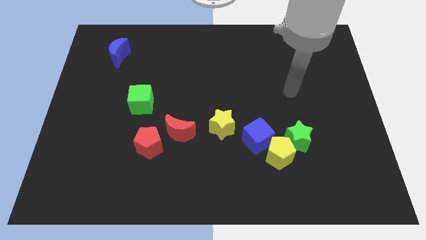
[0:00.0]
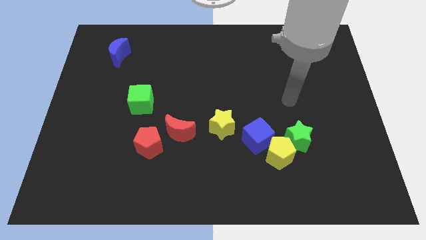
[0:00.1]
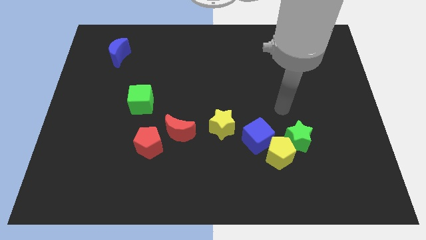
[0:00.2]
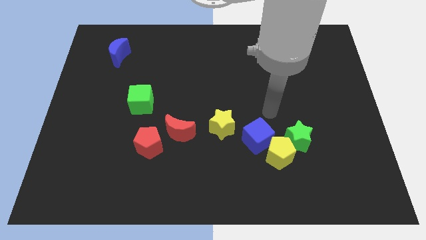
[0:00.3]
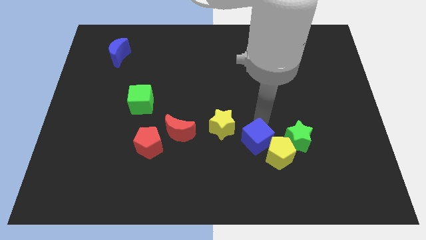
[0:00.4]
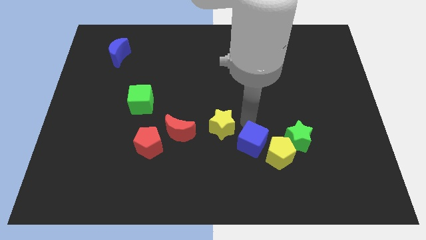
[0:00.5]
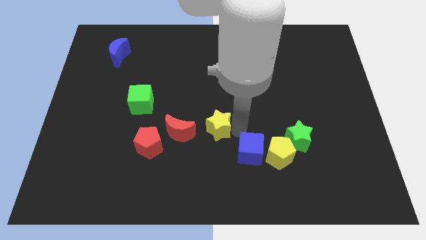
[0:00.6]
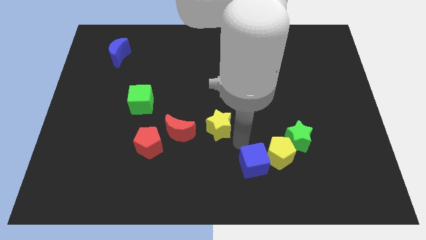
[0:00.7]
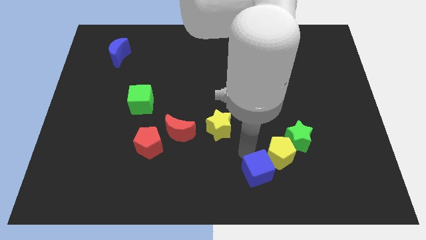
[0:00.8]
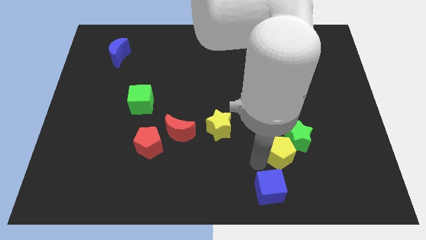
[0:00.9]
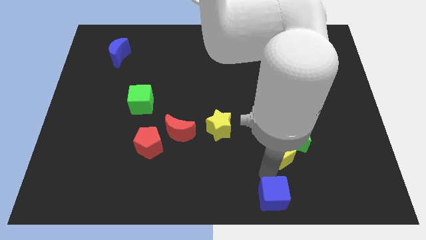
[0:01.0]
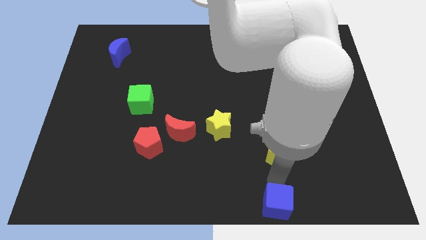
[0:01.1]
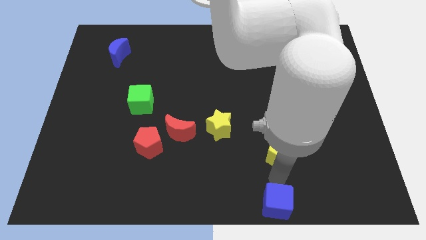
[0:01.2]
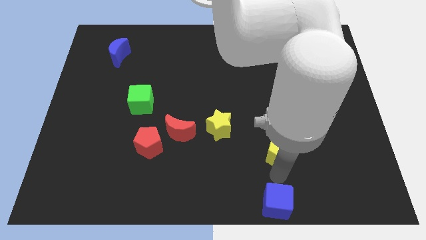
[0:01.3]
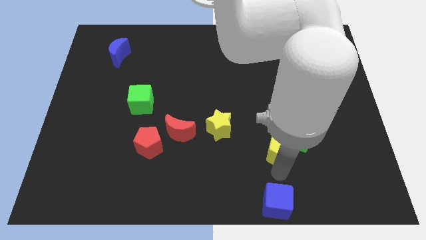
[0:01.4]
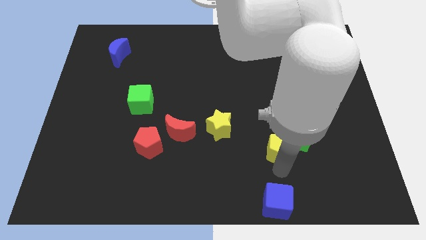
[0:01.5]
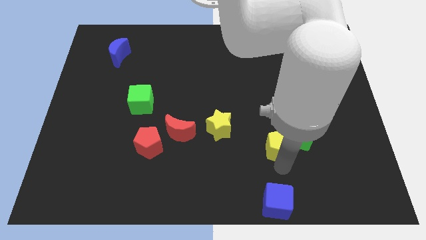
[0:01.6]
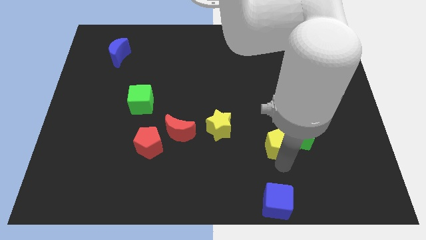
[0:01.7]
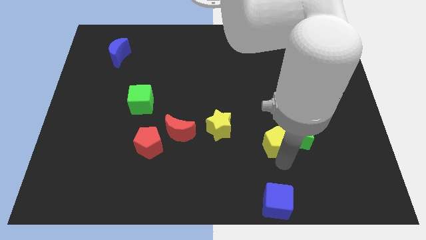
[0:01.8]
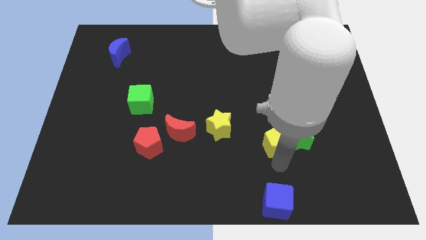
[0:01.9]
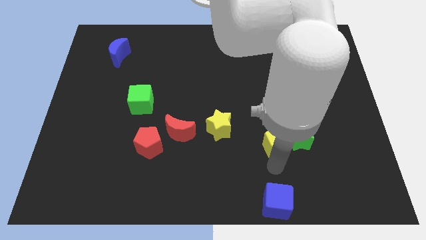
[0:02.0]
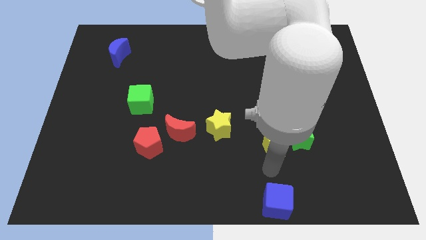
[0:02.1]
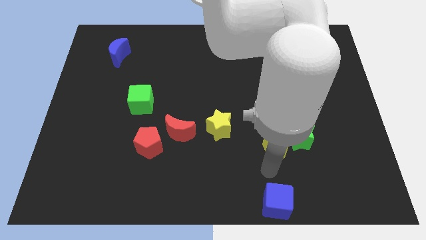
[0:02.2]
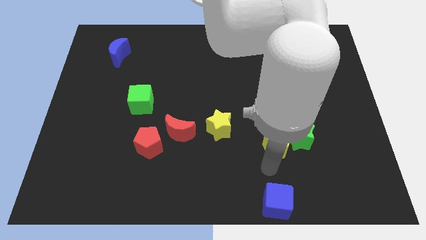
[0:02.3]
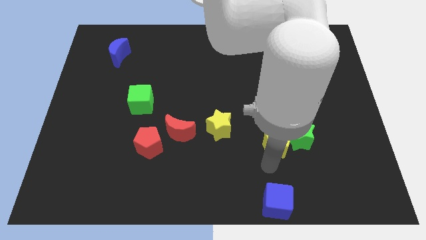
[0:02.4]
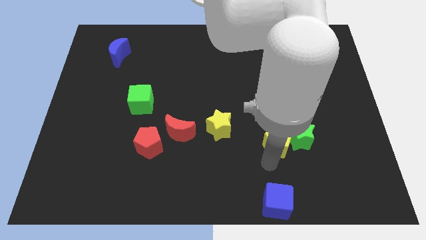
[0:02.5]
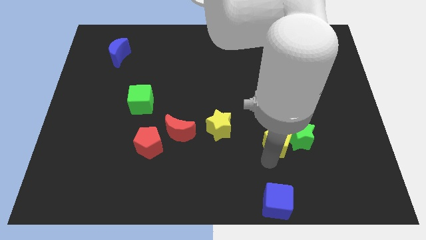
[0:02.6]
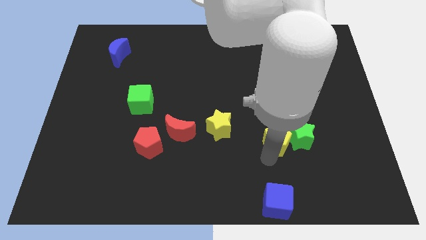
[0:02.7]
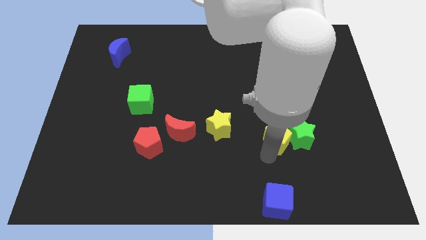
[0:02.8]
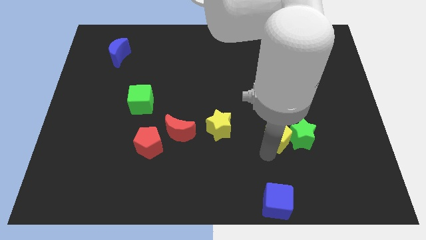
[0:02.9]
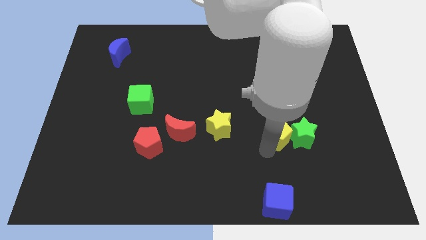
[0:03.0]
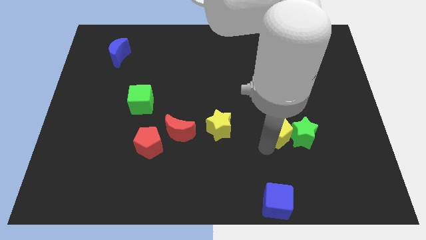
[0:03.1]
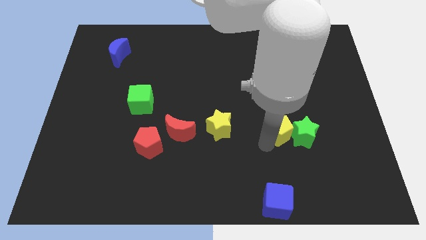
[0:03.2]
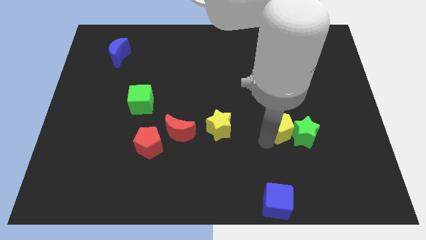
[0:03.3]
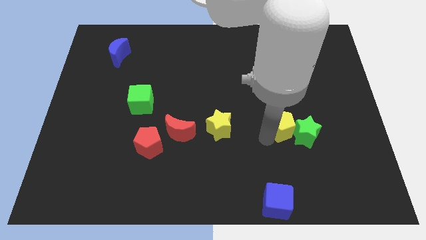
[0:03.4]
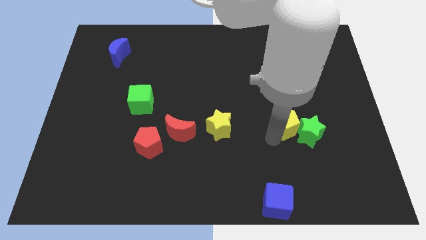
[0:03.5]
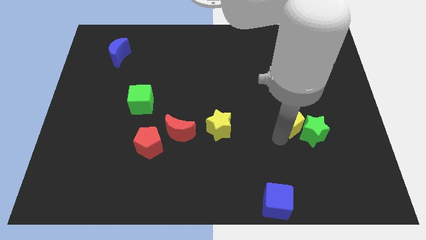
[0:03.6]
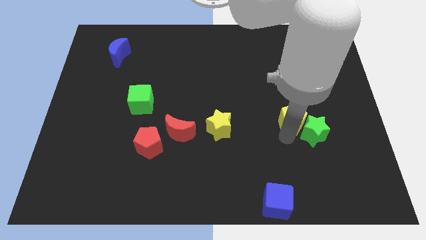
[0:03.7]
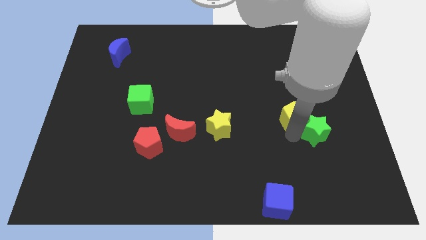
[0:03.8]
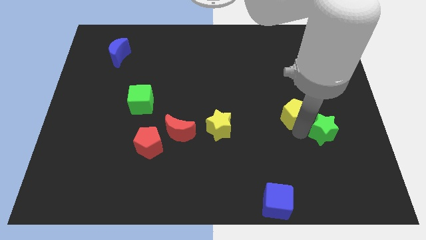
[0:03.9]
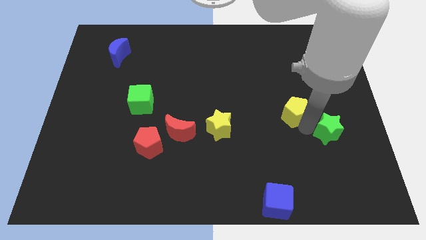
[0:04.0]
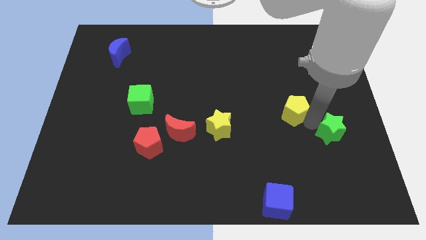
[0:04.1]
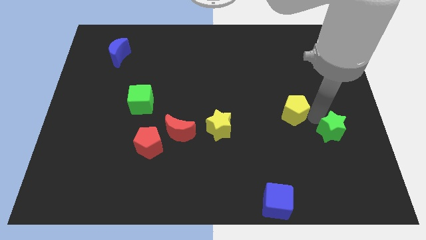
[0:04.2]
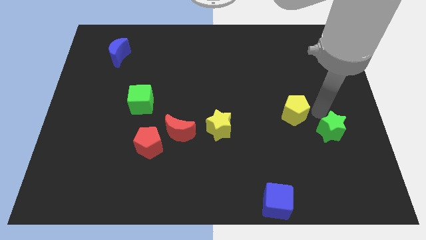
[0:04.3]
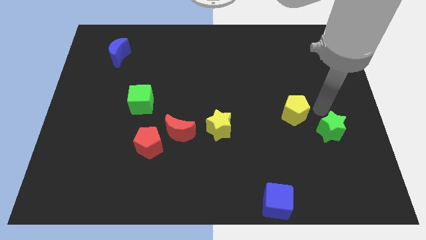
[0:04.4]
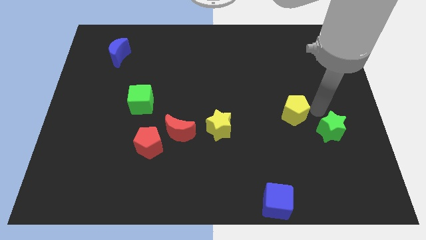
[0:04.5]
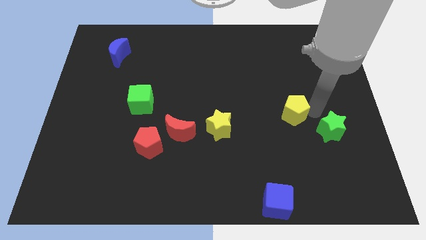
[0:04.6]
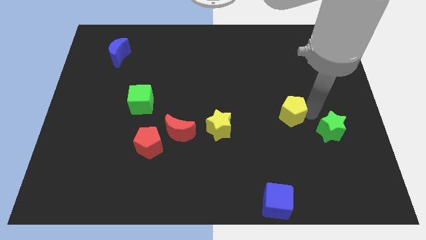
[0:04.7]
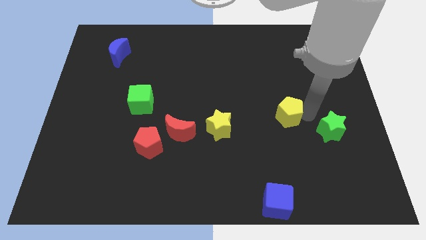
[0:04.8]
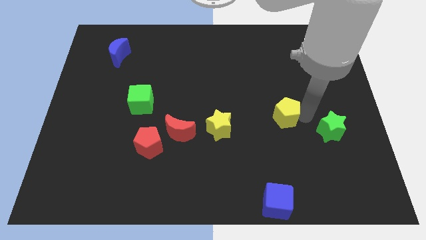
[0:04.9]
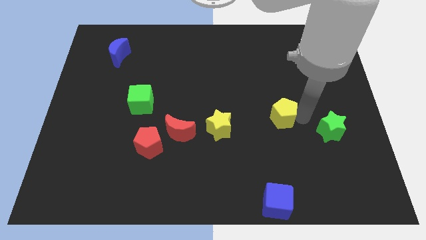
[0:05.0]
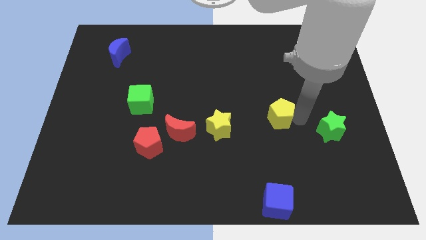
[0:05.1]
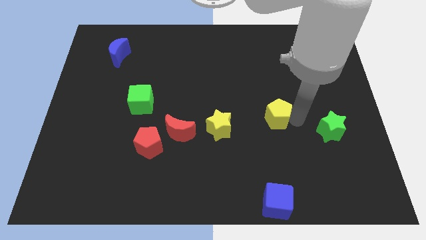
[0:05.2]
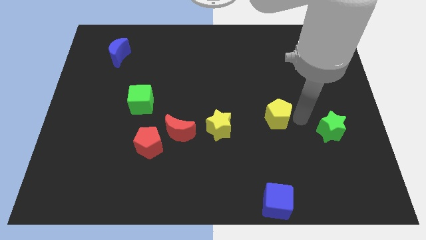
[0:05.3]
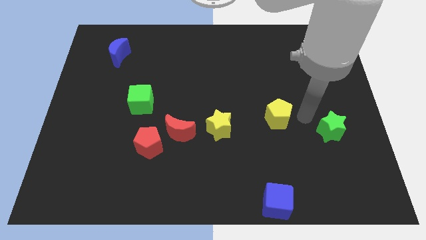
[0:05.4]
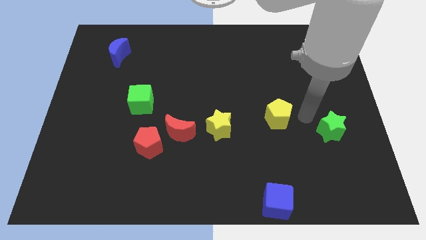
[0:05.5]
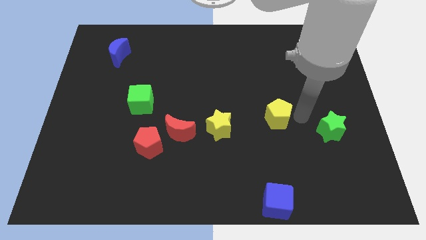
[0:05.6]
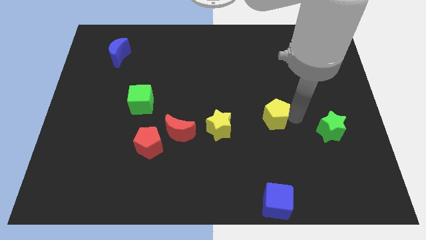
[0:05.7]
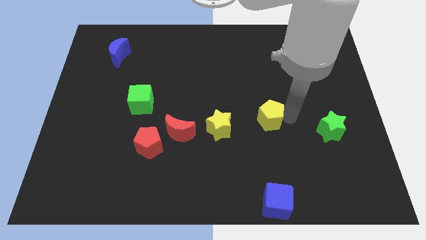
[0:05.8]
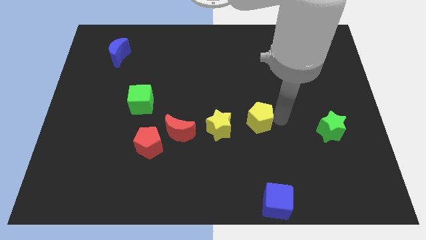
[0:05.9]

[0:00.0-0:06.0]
move the yellow pentagon diagonally up and left a little bit

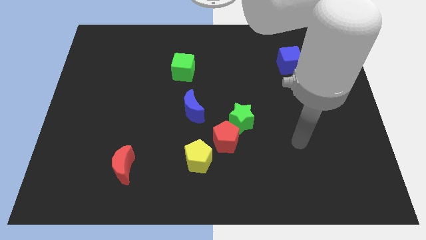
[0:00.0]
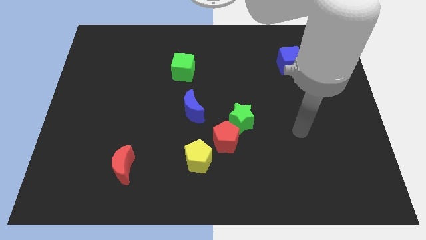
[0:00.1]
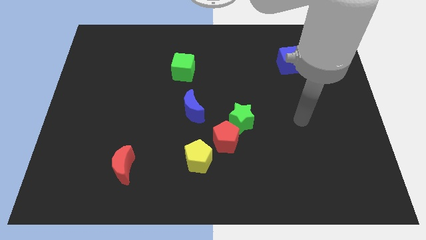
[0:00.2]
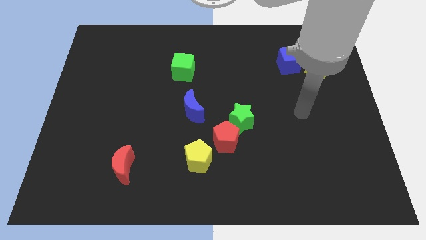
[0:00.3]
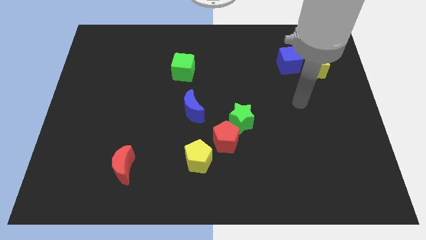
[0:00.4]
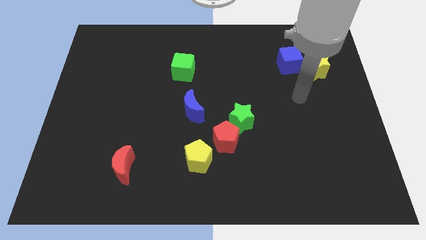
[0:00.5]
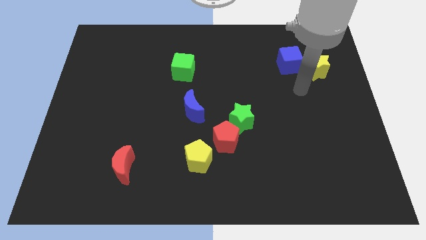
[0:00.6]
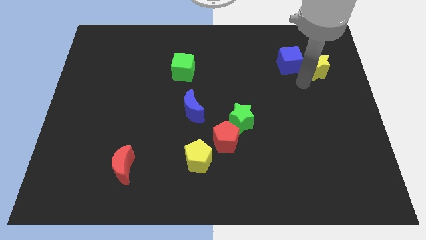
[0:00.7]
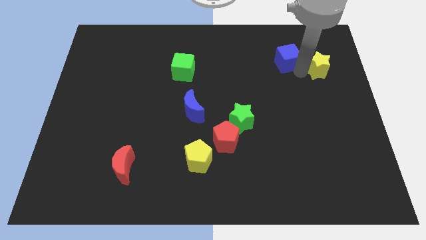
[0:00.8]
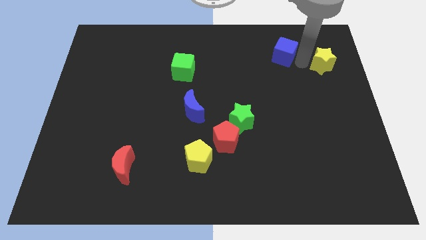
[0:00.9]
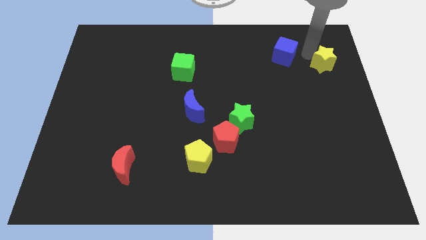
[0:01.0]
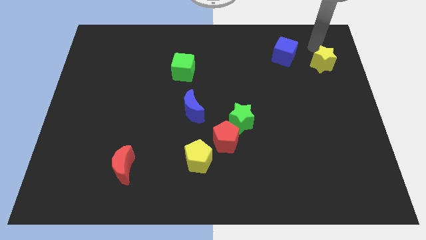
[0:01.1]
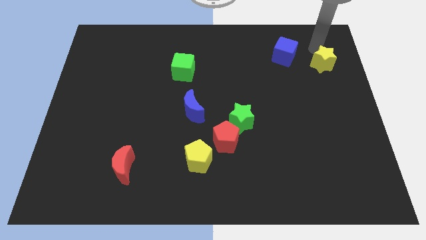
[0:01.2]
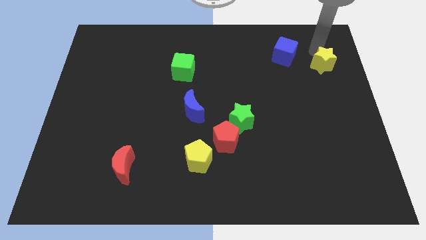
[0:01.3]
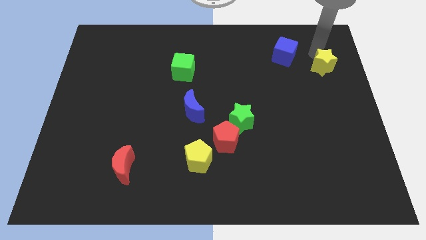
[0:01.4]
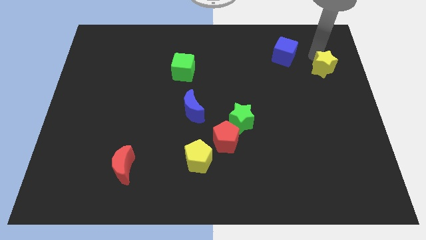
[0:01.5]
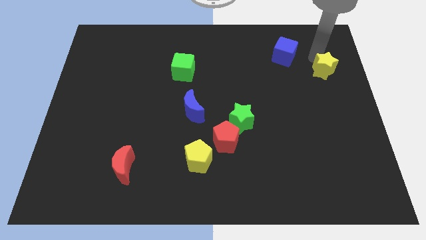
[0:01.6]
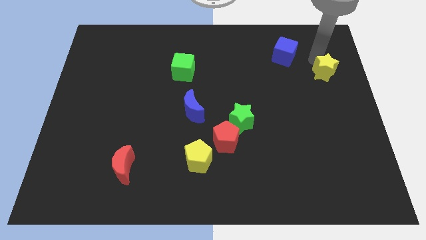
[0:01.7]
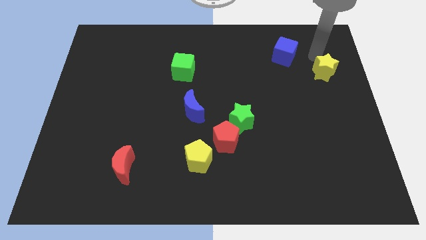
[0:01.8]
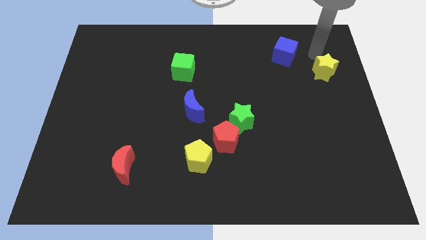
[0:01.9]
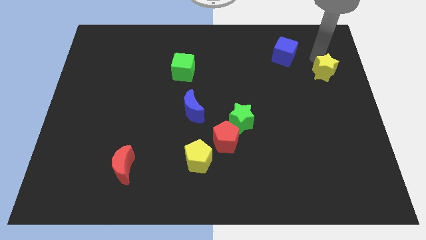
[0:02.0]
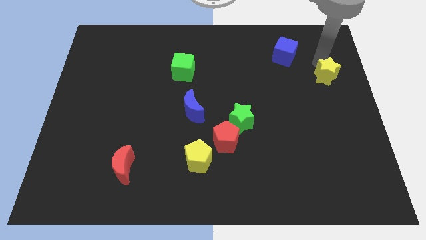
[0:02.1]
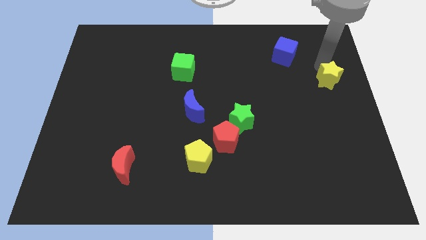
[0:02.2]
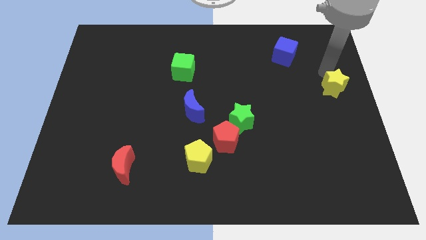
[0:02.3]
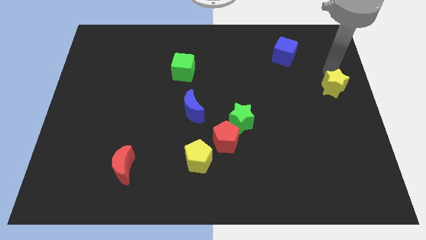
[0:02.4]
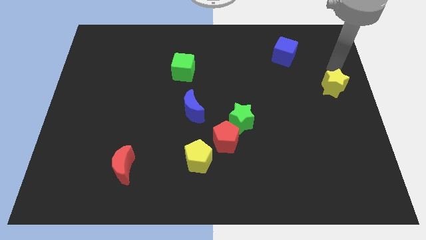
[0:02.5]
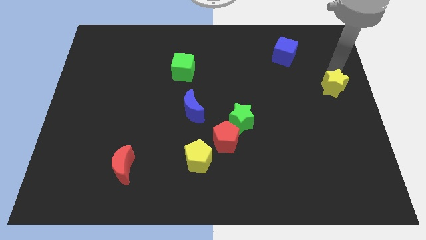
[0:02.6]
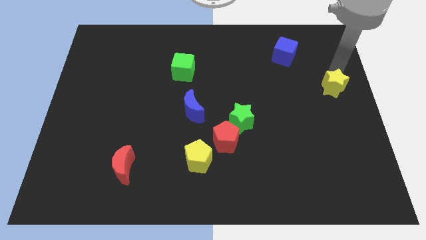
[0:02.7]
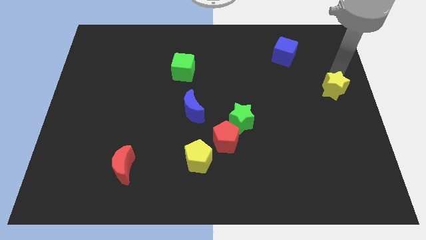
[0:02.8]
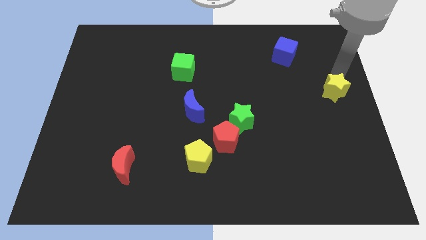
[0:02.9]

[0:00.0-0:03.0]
slightly slide the yellow star downwards
